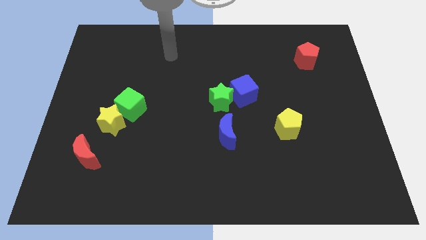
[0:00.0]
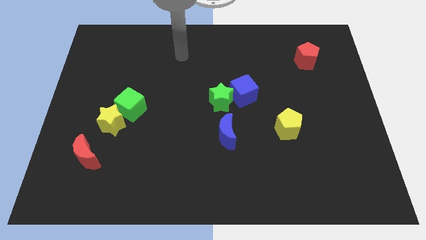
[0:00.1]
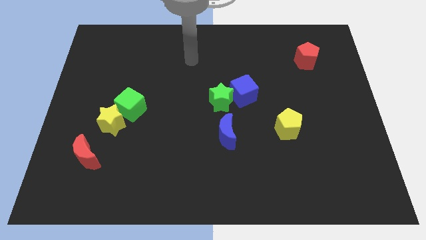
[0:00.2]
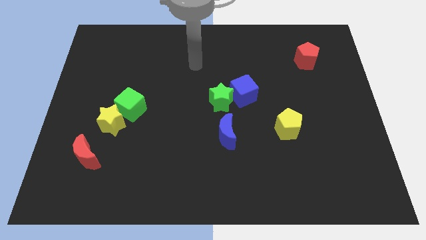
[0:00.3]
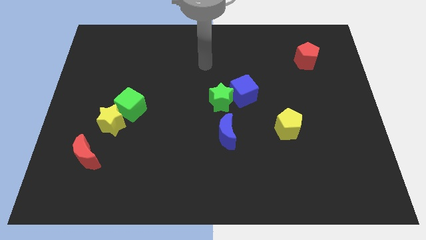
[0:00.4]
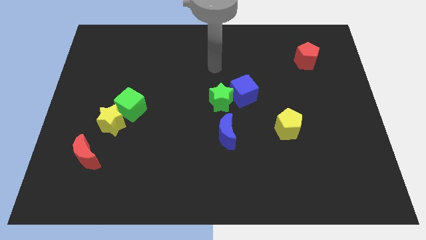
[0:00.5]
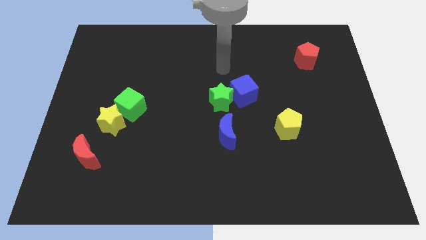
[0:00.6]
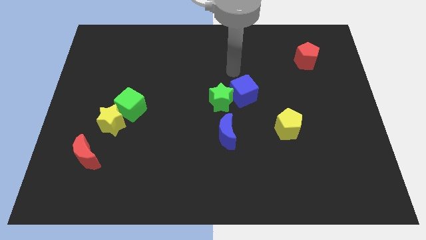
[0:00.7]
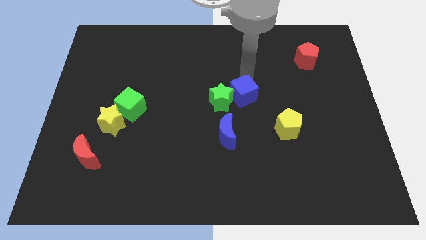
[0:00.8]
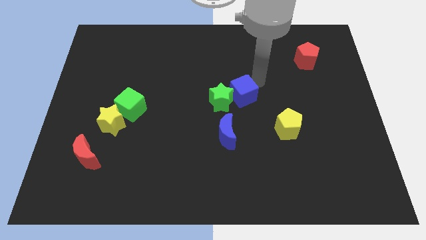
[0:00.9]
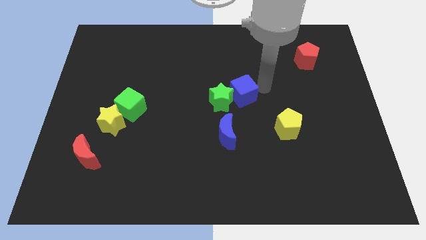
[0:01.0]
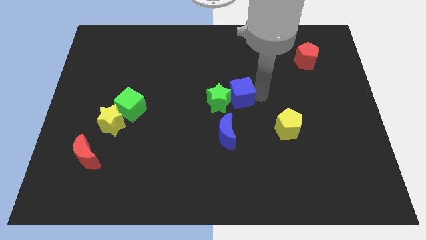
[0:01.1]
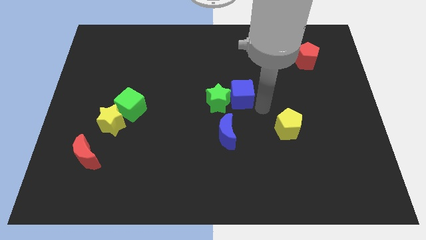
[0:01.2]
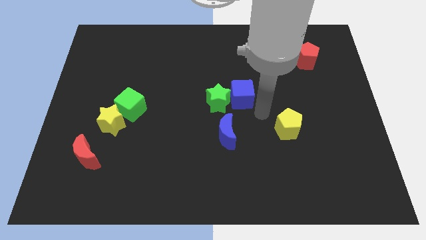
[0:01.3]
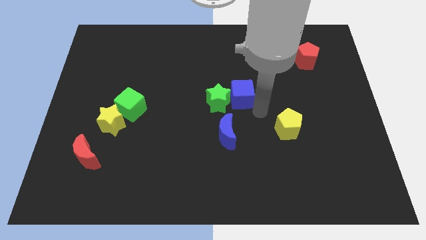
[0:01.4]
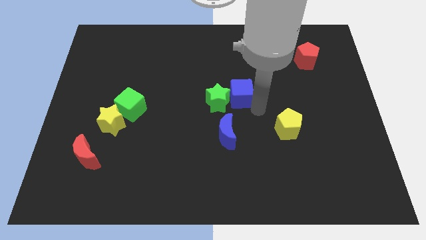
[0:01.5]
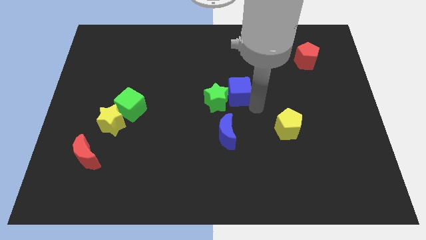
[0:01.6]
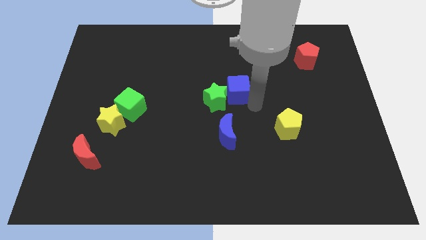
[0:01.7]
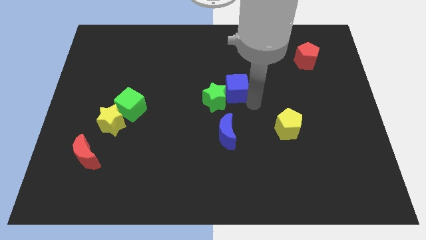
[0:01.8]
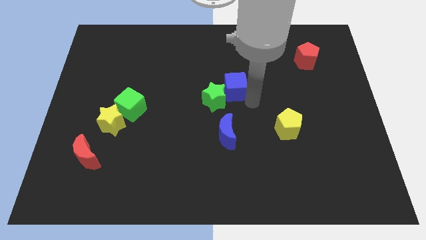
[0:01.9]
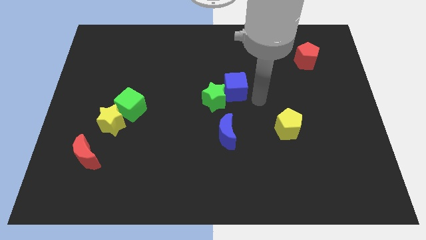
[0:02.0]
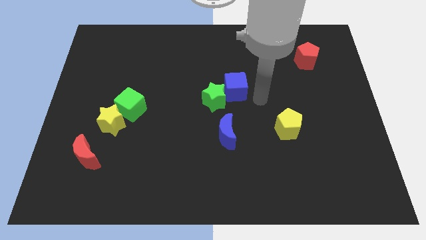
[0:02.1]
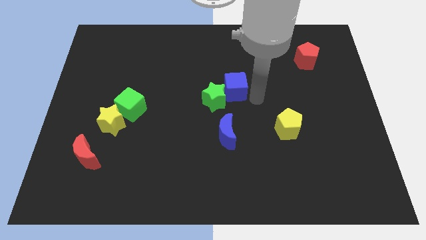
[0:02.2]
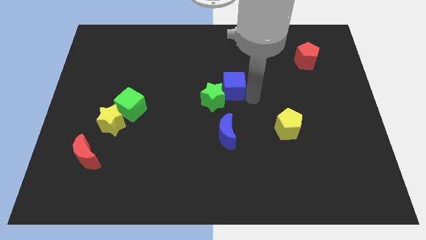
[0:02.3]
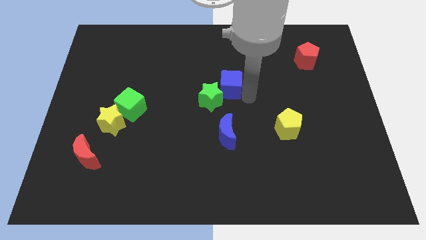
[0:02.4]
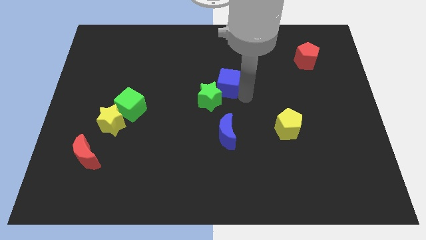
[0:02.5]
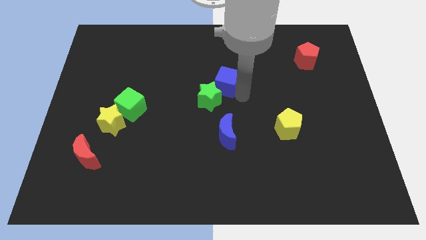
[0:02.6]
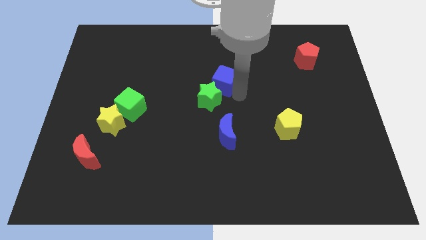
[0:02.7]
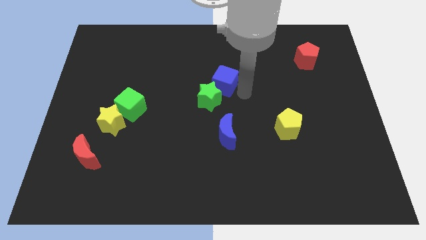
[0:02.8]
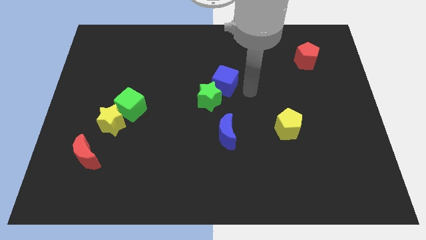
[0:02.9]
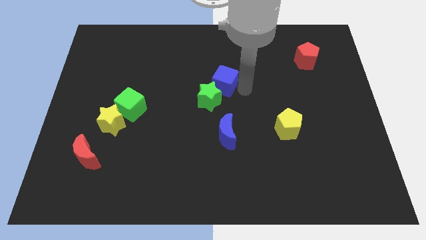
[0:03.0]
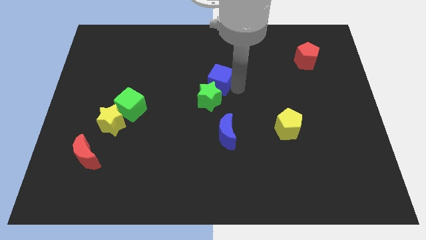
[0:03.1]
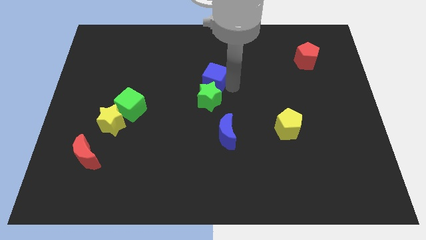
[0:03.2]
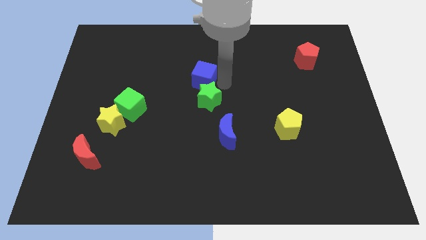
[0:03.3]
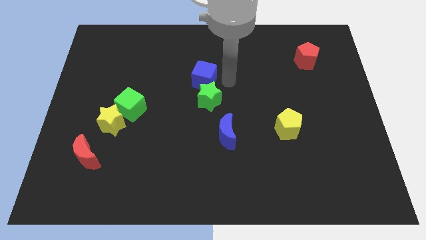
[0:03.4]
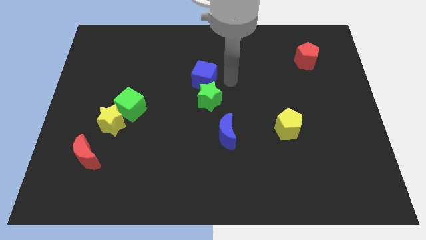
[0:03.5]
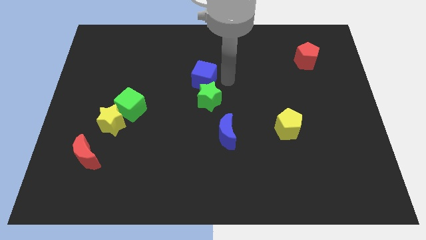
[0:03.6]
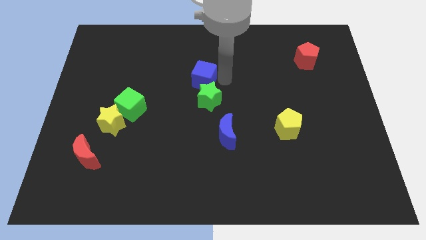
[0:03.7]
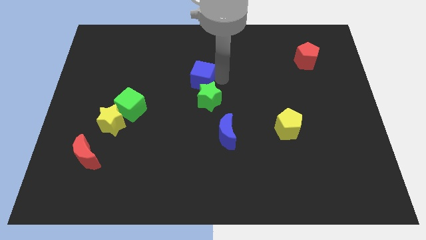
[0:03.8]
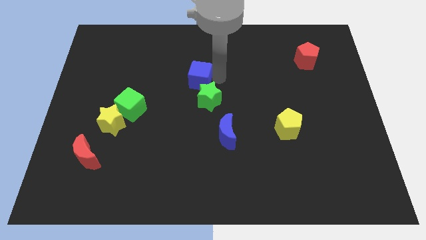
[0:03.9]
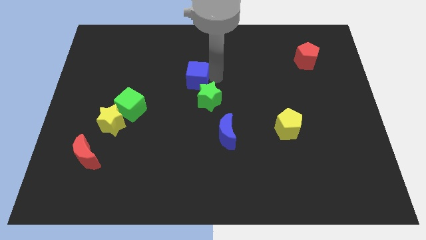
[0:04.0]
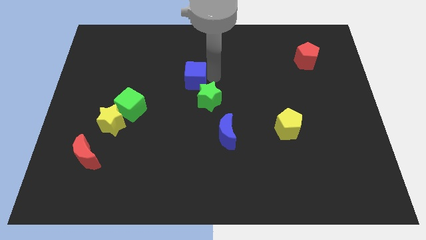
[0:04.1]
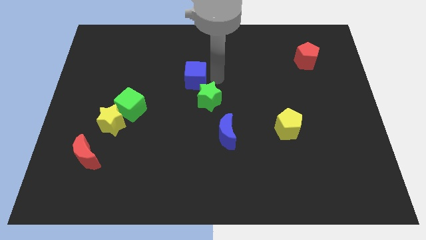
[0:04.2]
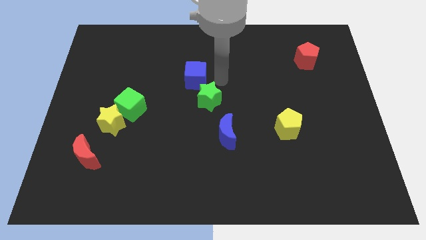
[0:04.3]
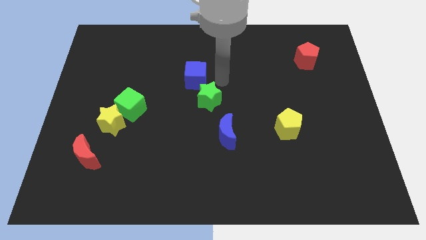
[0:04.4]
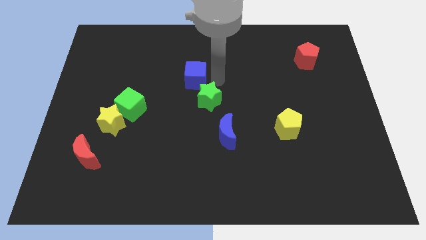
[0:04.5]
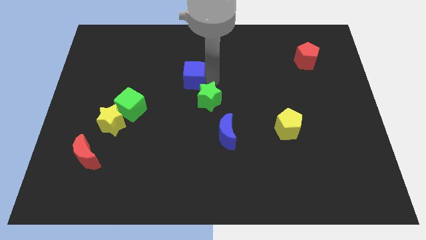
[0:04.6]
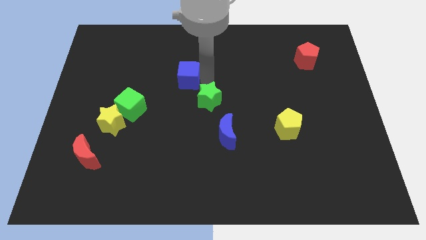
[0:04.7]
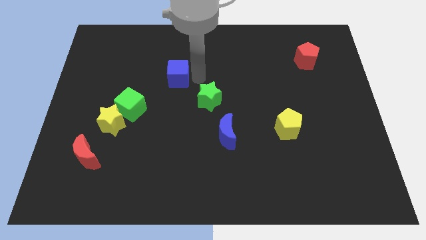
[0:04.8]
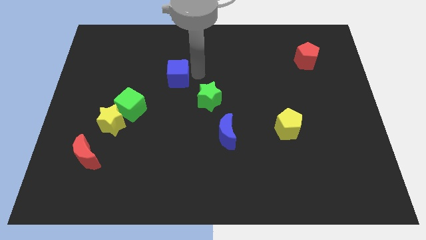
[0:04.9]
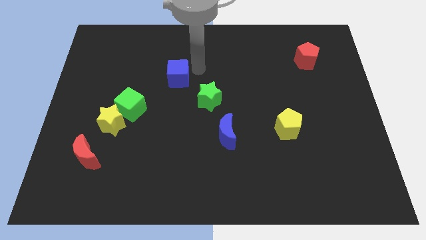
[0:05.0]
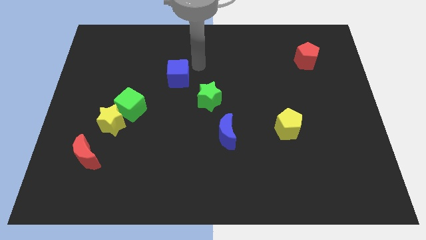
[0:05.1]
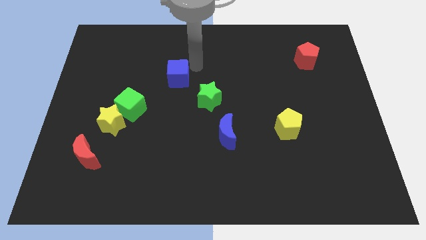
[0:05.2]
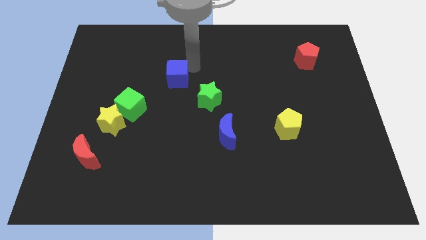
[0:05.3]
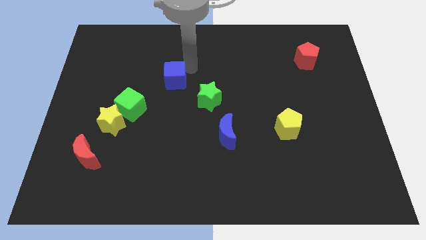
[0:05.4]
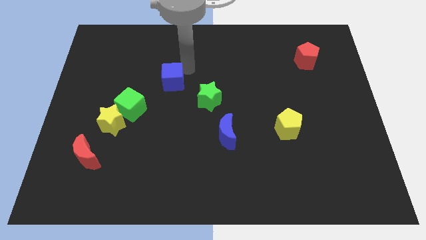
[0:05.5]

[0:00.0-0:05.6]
move the blue cube diagonally up and to the right of the green cube

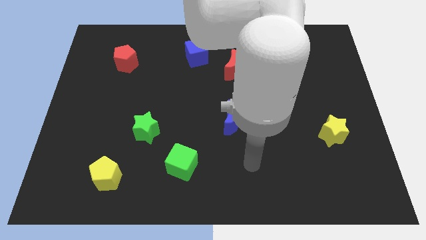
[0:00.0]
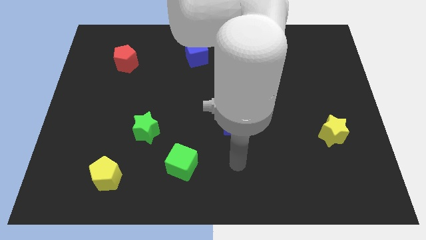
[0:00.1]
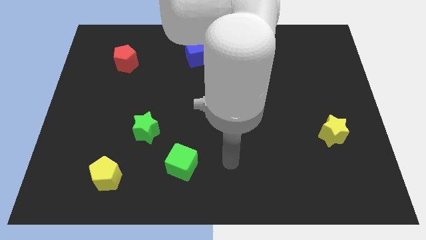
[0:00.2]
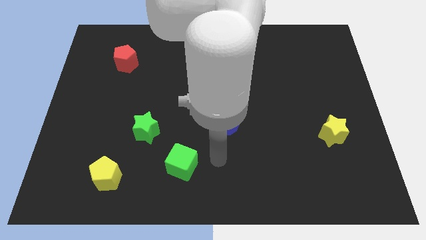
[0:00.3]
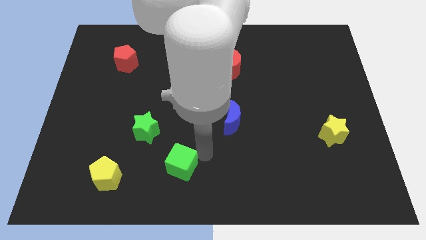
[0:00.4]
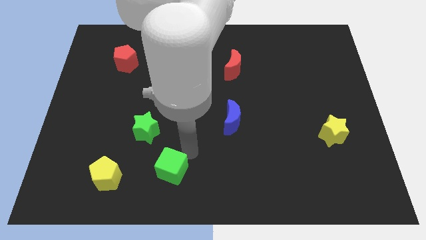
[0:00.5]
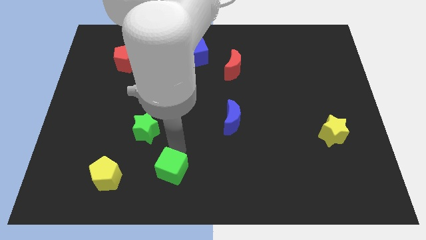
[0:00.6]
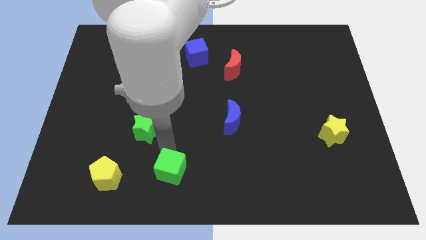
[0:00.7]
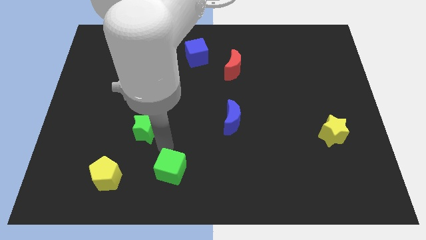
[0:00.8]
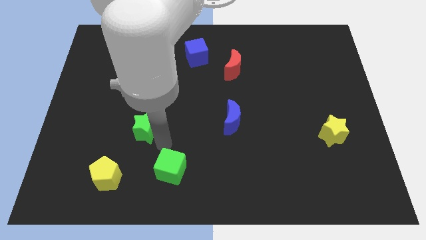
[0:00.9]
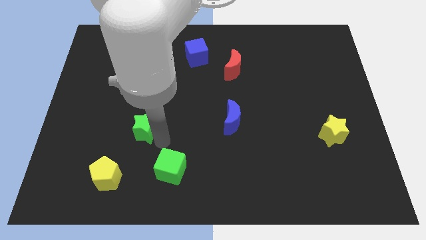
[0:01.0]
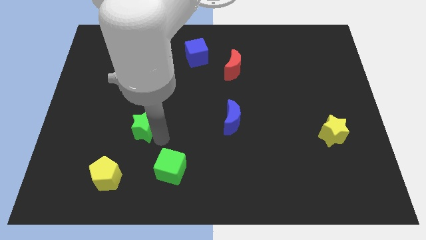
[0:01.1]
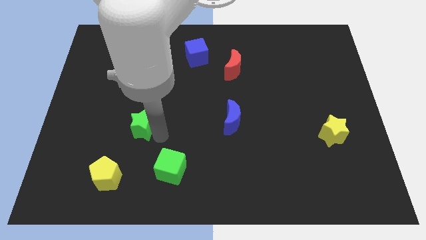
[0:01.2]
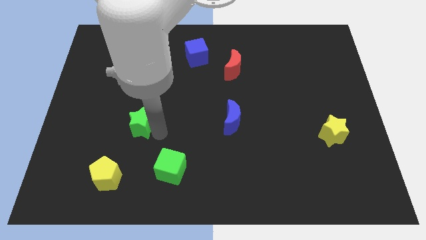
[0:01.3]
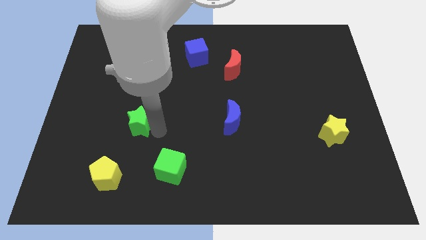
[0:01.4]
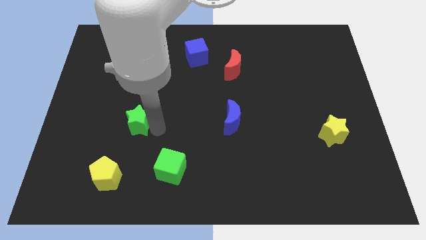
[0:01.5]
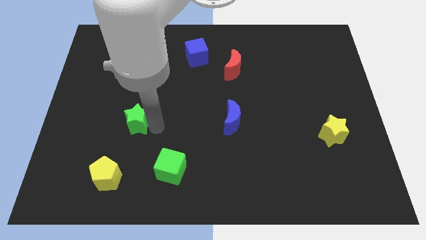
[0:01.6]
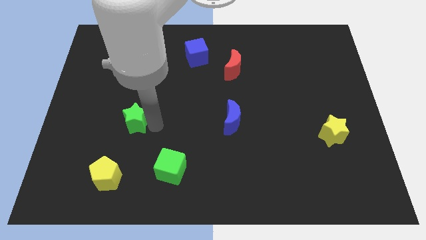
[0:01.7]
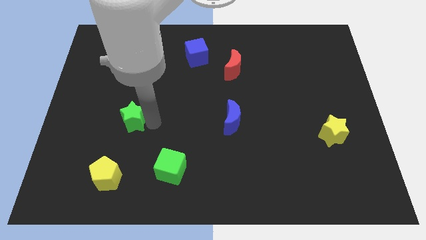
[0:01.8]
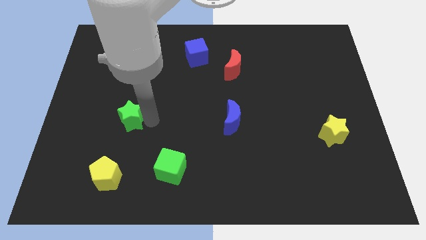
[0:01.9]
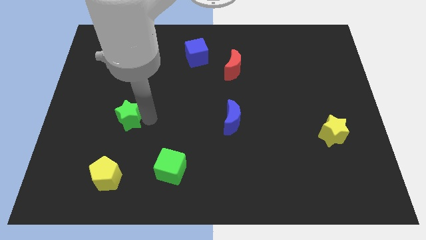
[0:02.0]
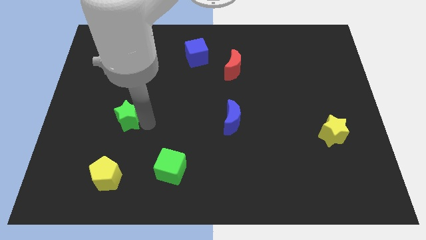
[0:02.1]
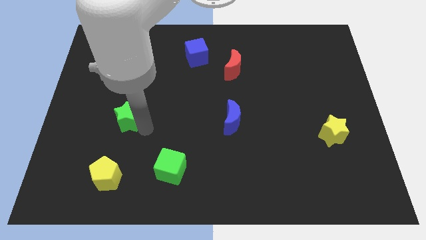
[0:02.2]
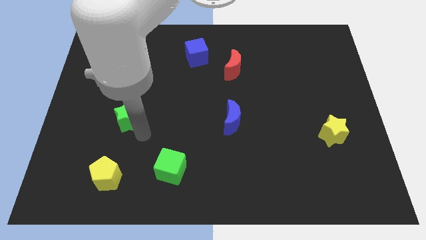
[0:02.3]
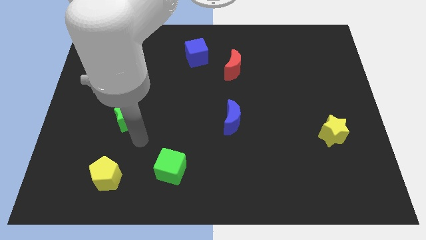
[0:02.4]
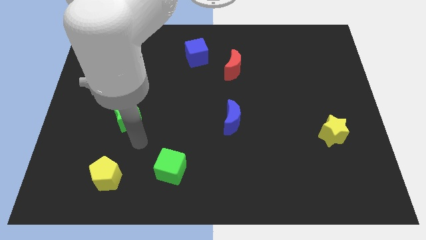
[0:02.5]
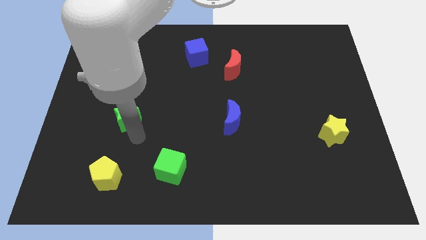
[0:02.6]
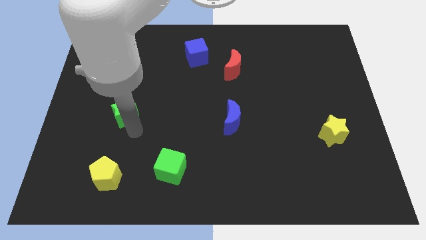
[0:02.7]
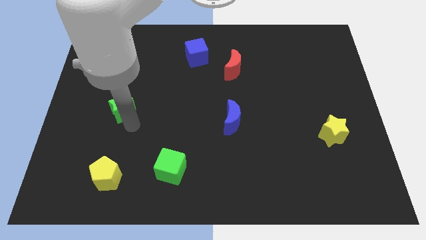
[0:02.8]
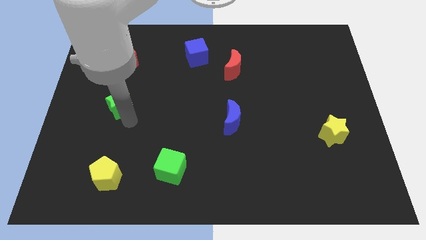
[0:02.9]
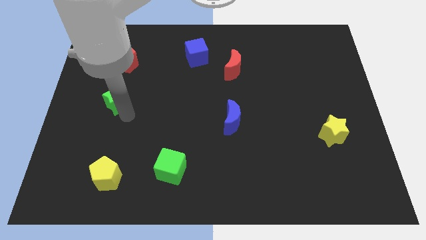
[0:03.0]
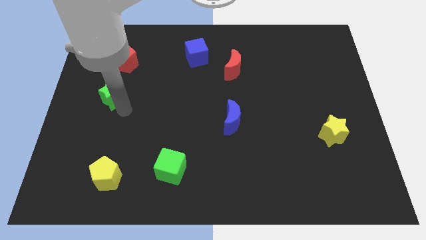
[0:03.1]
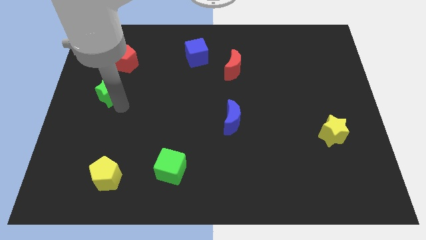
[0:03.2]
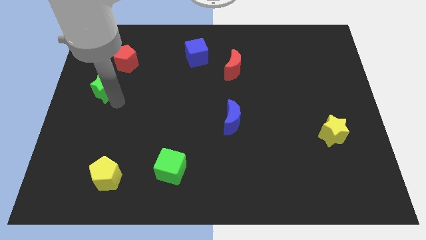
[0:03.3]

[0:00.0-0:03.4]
move the green star diagonally down and to the left of the red pentagon
